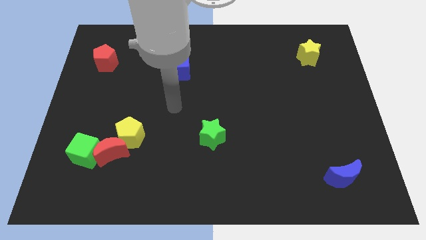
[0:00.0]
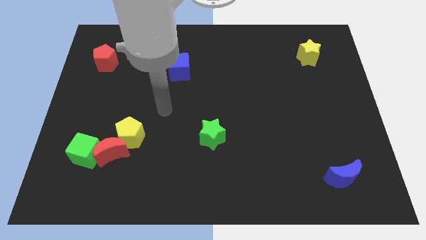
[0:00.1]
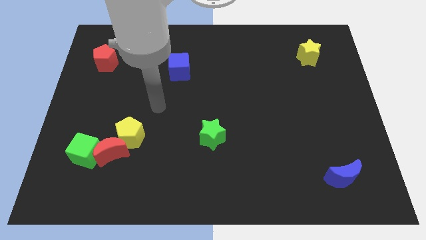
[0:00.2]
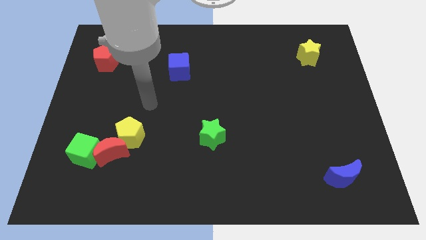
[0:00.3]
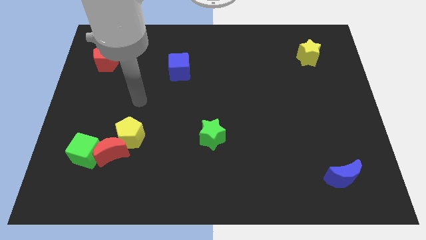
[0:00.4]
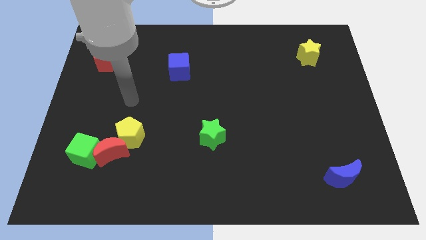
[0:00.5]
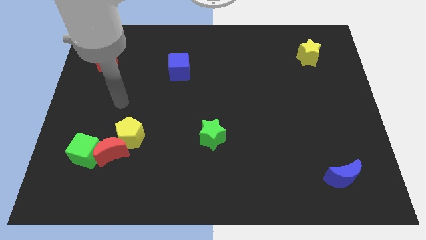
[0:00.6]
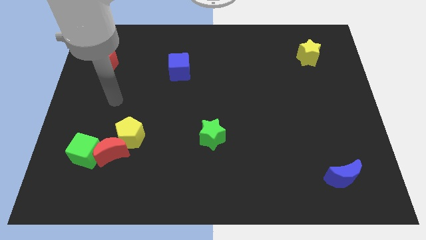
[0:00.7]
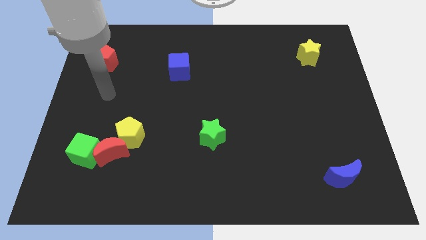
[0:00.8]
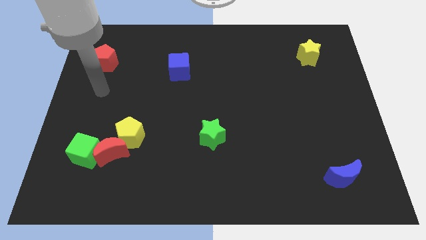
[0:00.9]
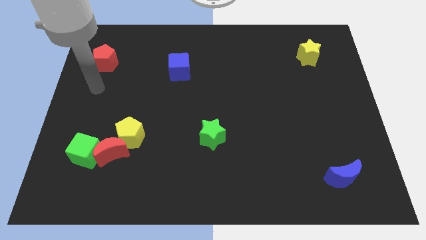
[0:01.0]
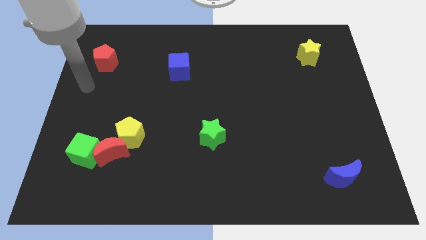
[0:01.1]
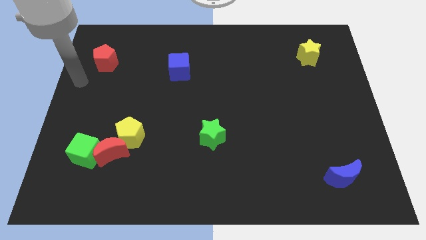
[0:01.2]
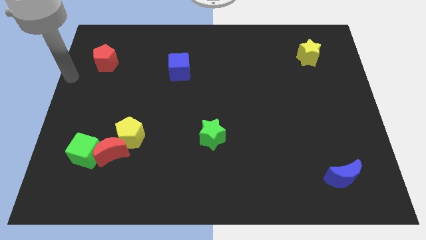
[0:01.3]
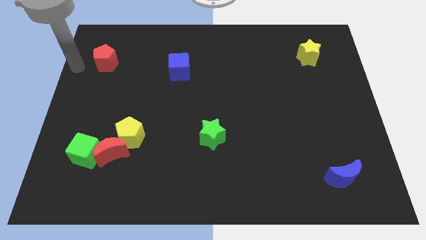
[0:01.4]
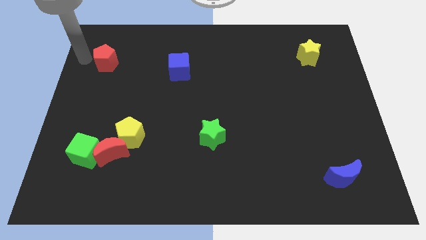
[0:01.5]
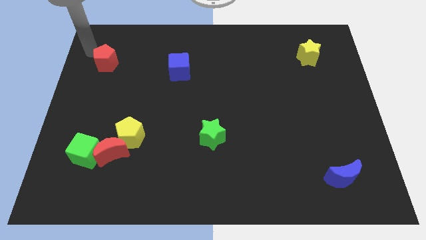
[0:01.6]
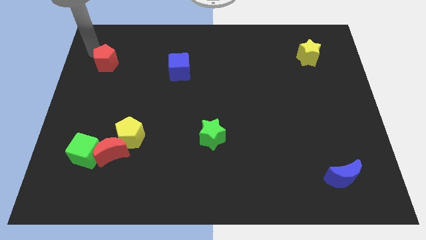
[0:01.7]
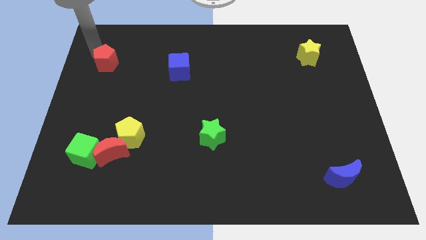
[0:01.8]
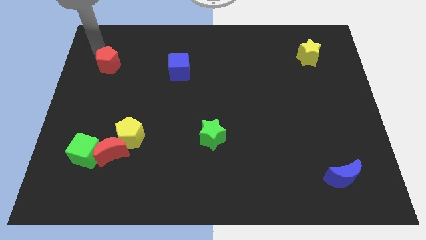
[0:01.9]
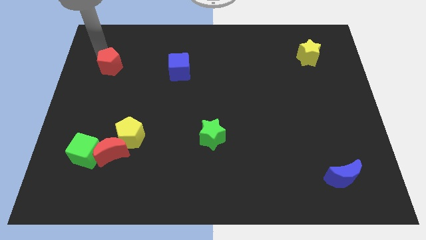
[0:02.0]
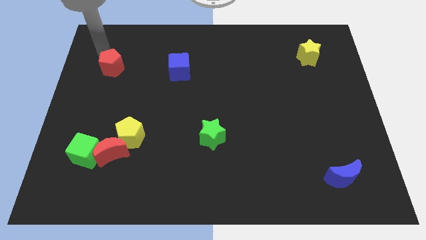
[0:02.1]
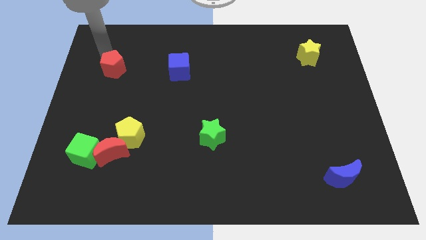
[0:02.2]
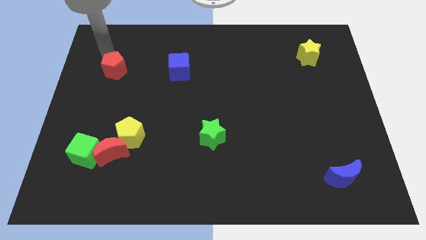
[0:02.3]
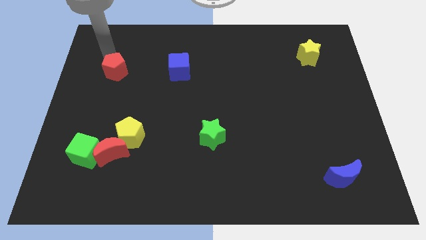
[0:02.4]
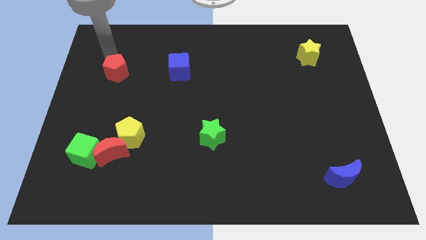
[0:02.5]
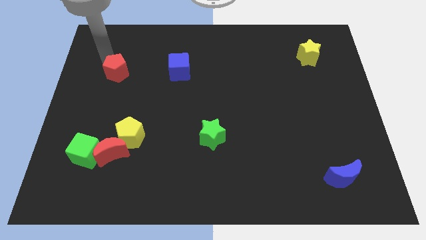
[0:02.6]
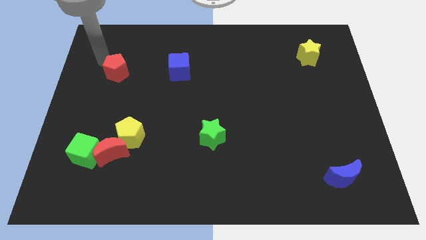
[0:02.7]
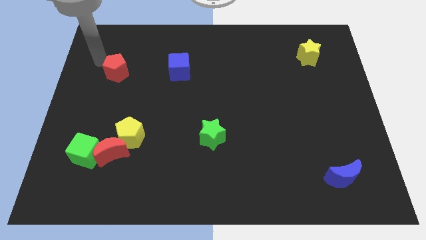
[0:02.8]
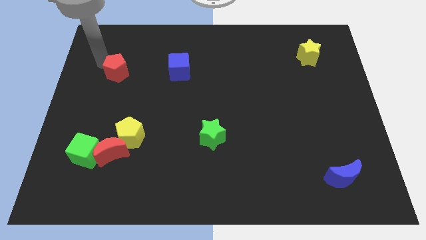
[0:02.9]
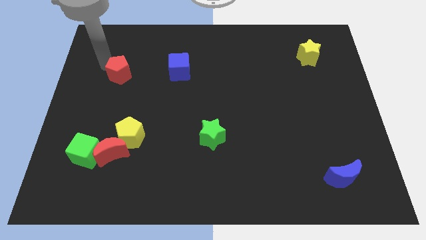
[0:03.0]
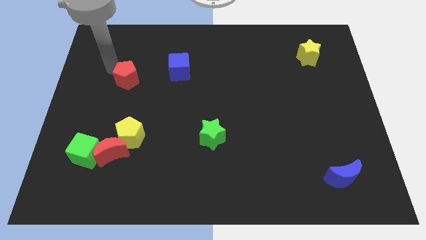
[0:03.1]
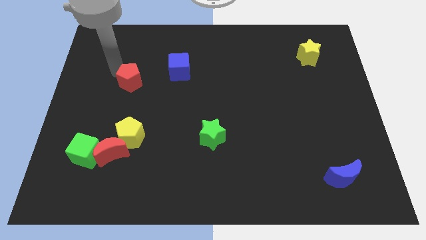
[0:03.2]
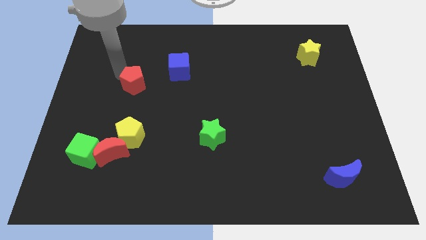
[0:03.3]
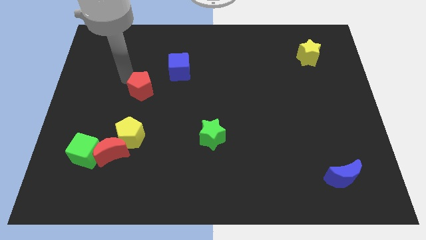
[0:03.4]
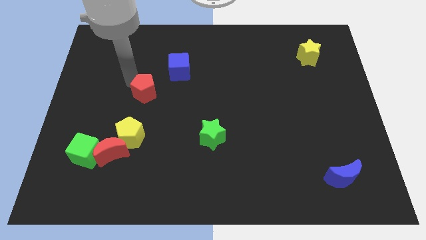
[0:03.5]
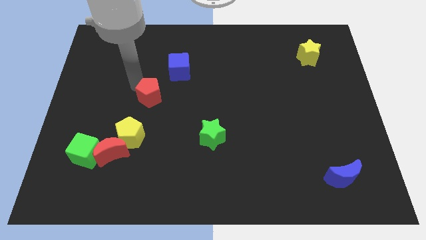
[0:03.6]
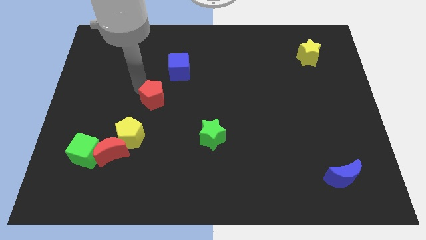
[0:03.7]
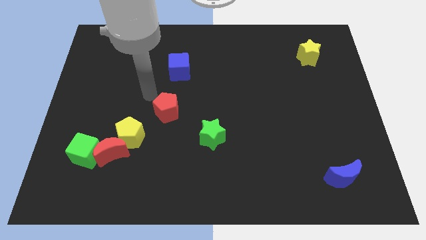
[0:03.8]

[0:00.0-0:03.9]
push the red pentagon downwards and right

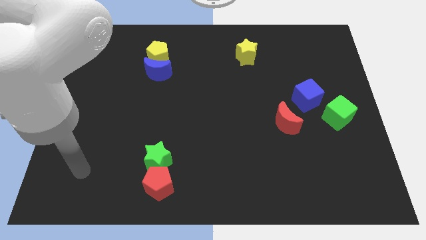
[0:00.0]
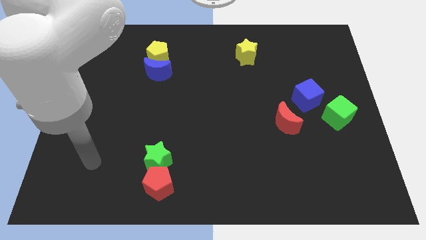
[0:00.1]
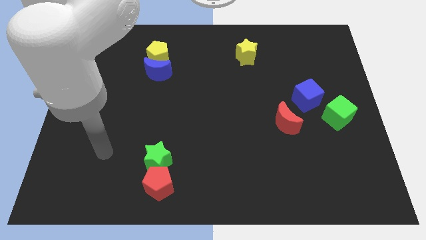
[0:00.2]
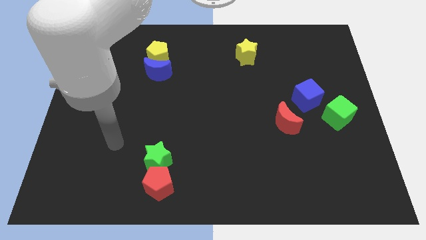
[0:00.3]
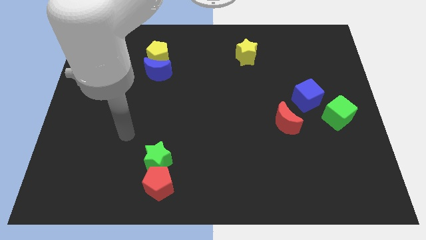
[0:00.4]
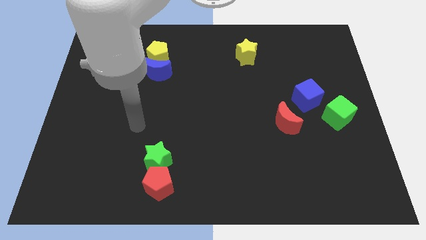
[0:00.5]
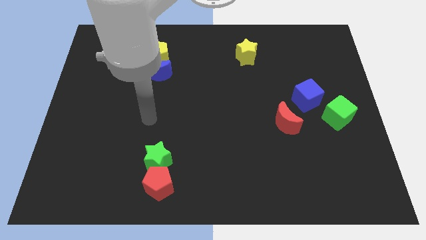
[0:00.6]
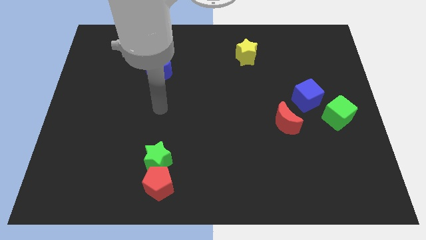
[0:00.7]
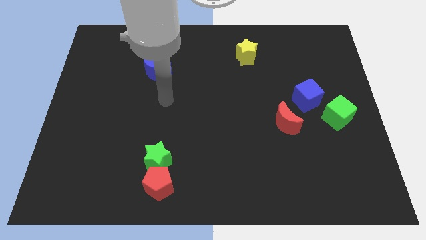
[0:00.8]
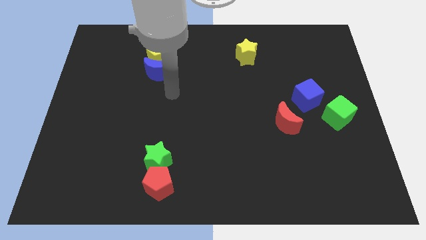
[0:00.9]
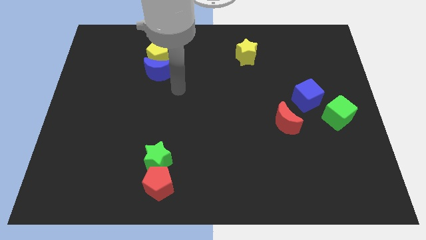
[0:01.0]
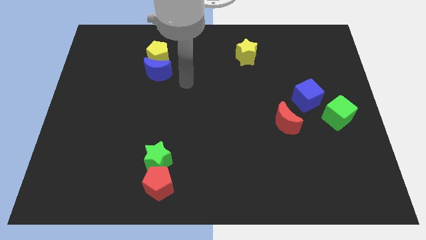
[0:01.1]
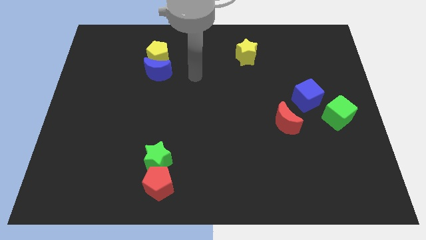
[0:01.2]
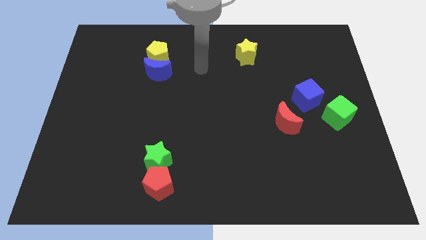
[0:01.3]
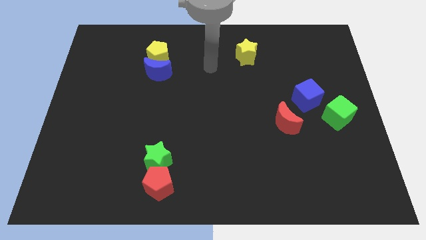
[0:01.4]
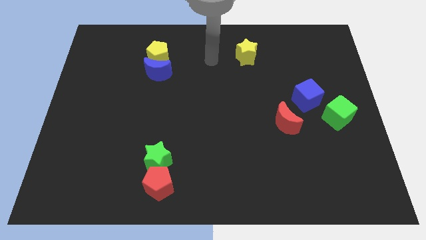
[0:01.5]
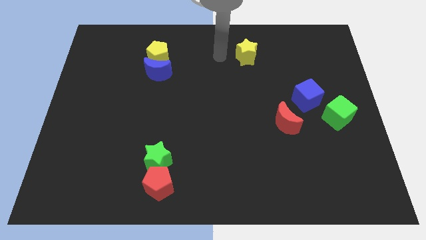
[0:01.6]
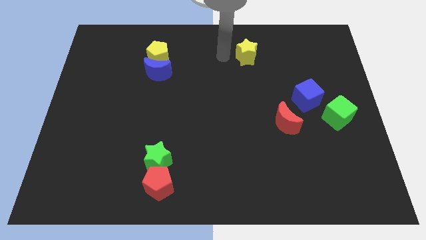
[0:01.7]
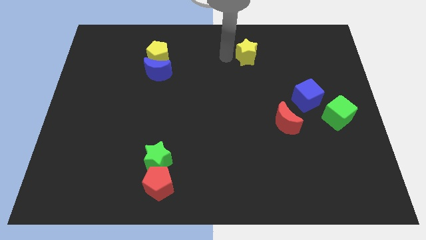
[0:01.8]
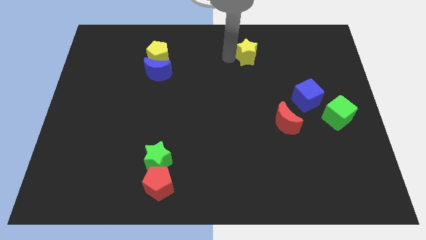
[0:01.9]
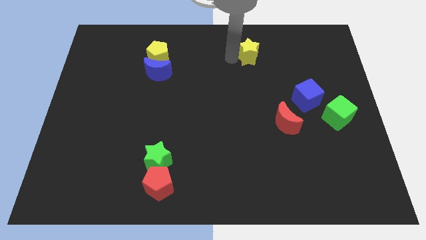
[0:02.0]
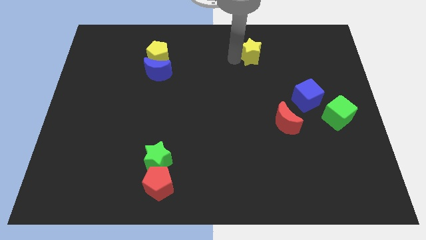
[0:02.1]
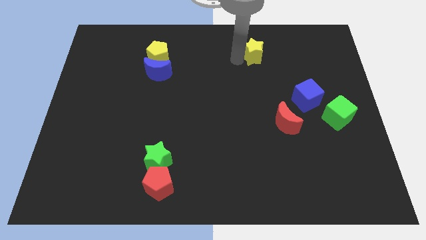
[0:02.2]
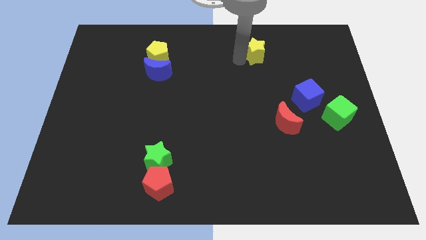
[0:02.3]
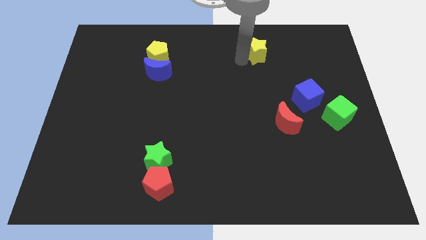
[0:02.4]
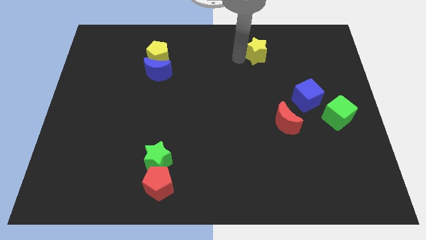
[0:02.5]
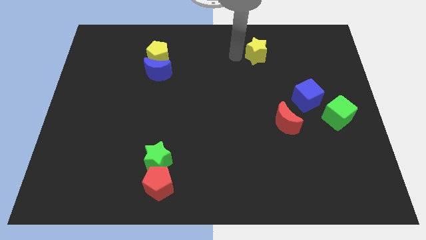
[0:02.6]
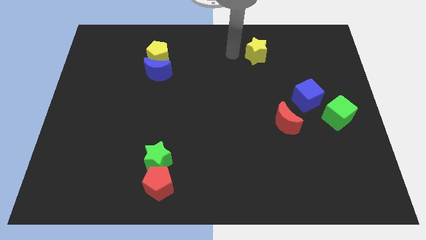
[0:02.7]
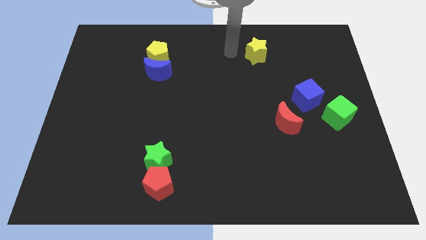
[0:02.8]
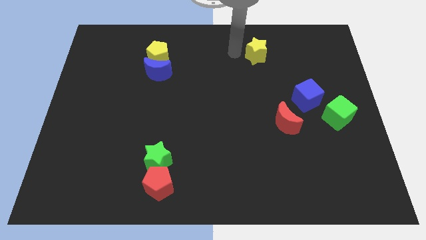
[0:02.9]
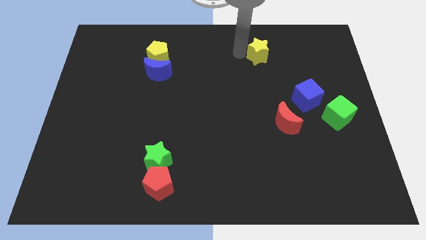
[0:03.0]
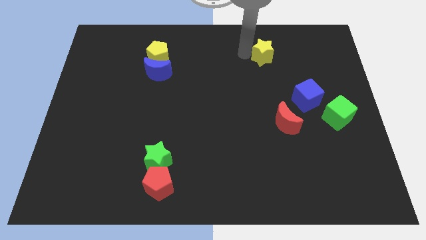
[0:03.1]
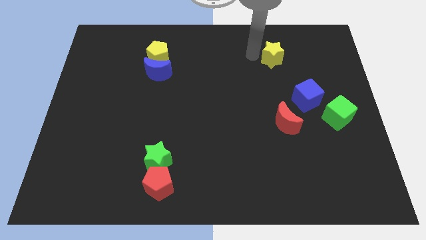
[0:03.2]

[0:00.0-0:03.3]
slightly move the yellow star to the right

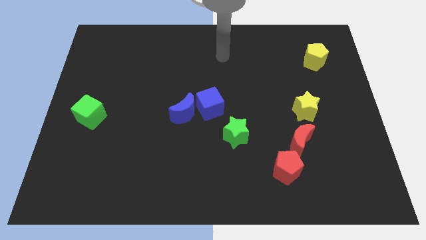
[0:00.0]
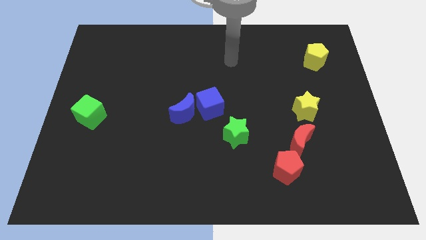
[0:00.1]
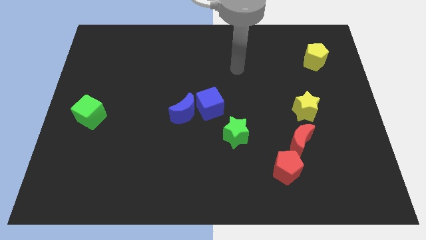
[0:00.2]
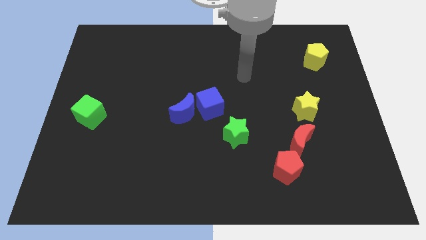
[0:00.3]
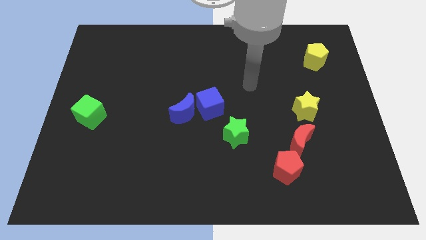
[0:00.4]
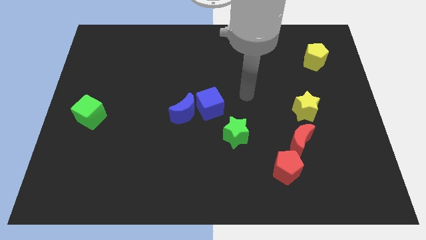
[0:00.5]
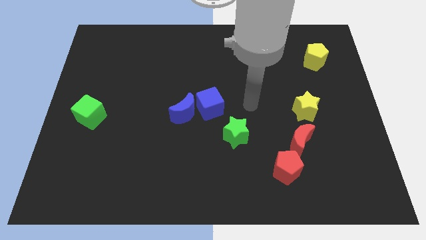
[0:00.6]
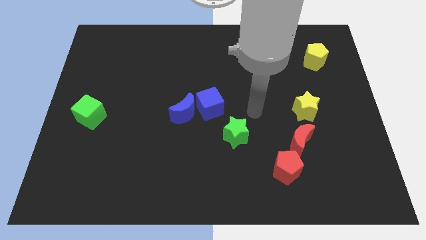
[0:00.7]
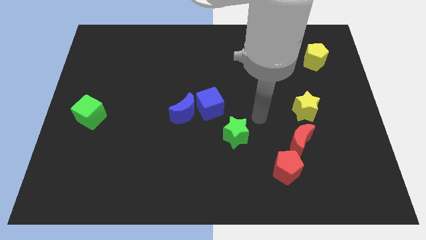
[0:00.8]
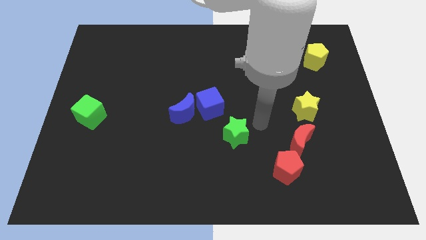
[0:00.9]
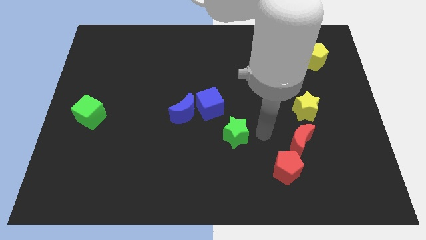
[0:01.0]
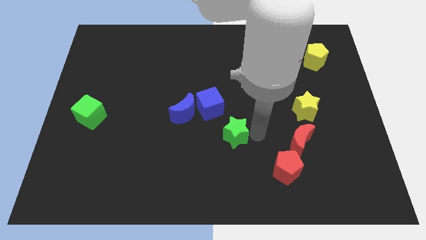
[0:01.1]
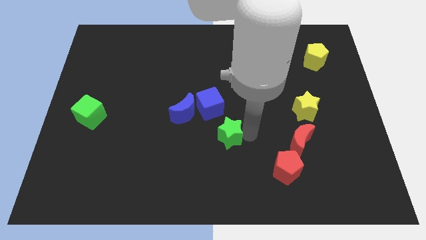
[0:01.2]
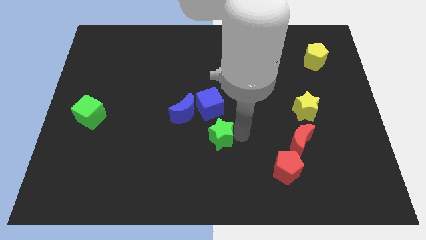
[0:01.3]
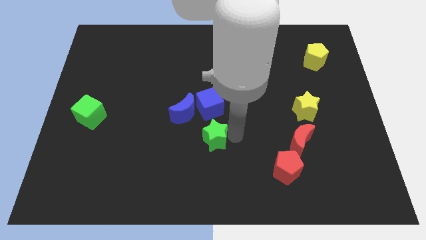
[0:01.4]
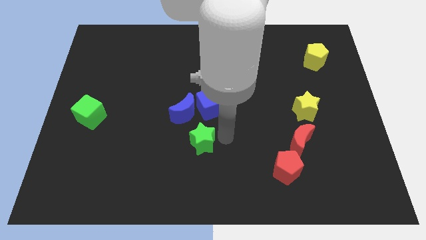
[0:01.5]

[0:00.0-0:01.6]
move the green star a little bit left
